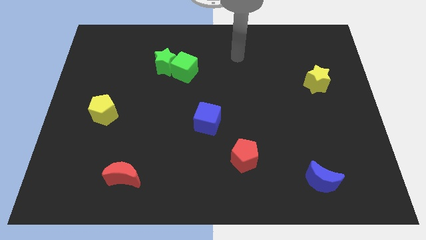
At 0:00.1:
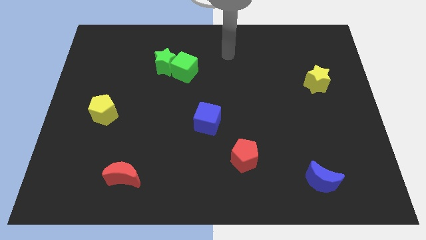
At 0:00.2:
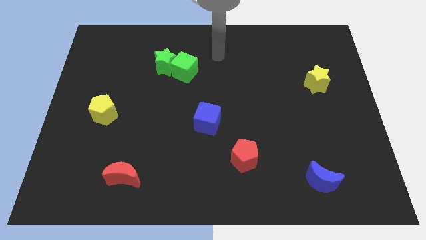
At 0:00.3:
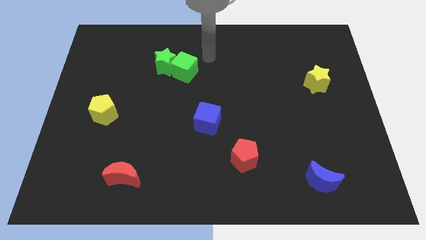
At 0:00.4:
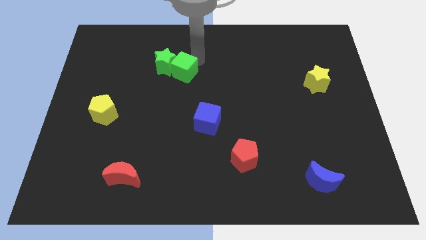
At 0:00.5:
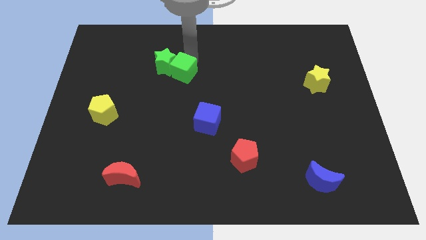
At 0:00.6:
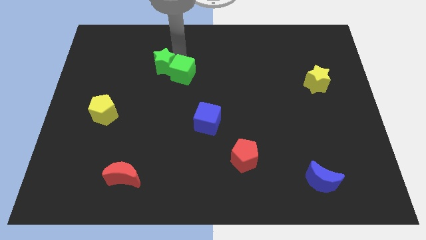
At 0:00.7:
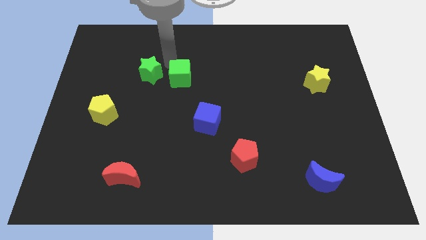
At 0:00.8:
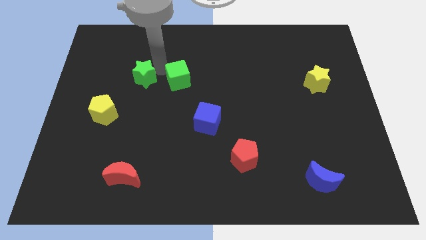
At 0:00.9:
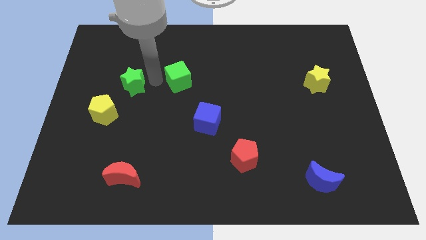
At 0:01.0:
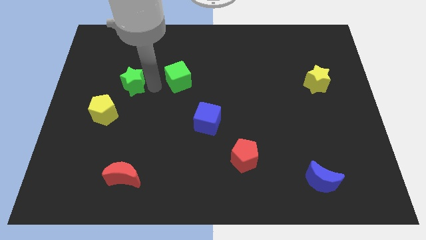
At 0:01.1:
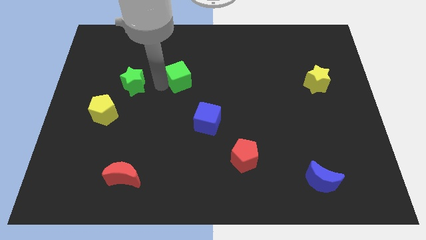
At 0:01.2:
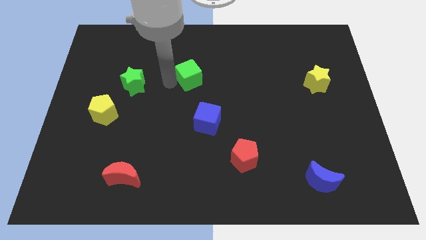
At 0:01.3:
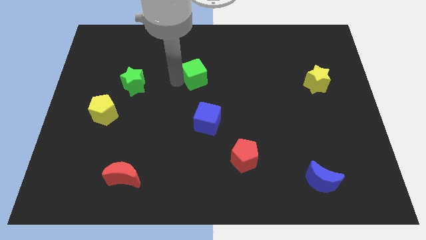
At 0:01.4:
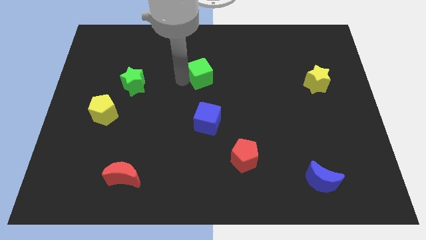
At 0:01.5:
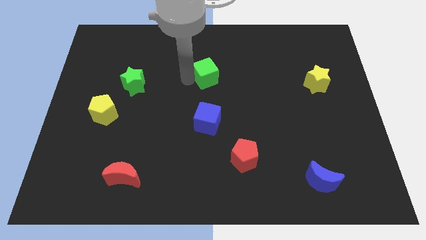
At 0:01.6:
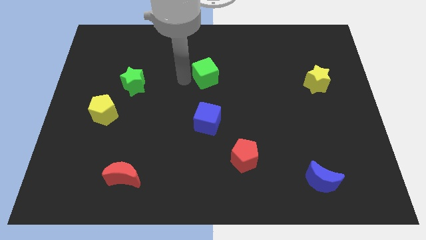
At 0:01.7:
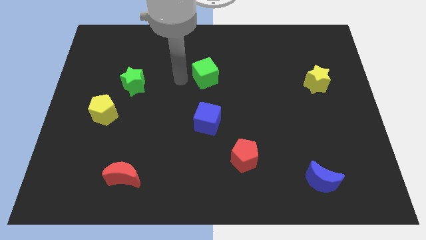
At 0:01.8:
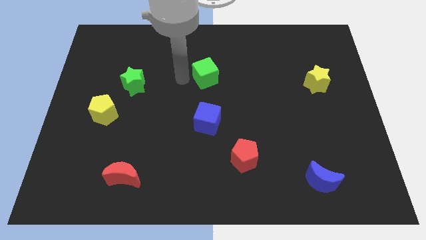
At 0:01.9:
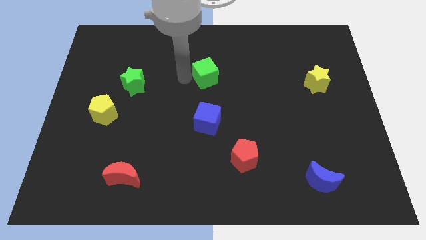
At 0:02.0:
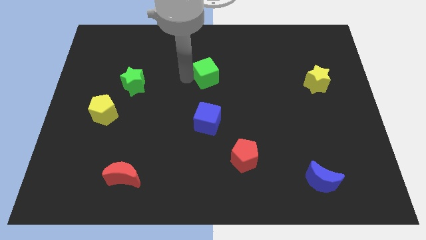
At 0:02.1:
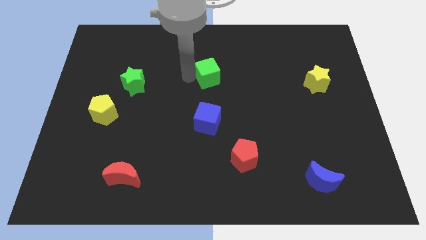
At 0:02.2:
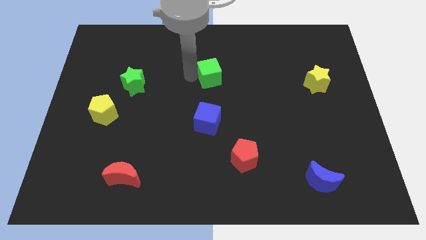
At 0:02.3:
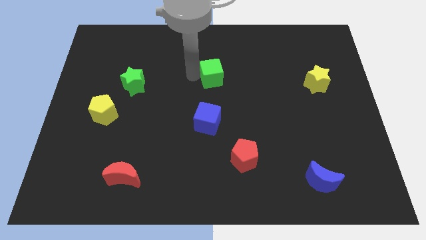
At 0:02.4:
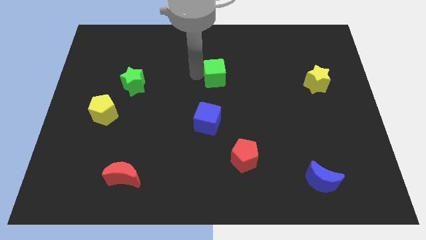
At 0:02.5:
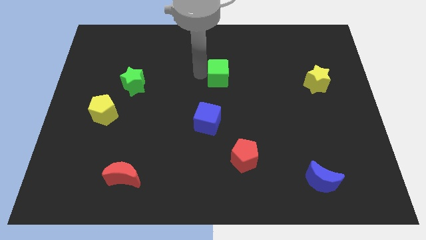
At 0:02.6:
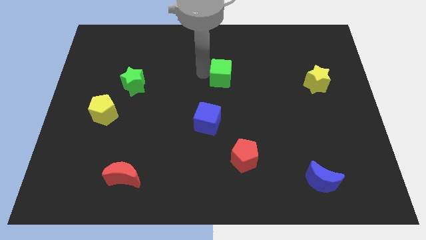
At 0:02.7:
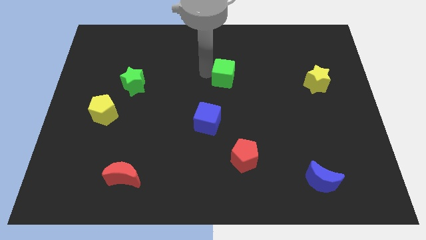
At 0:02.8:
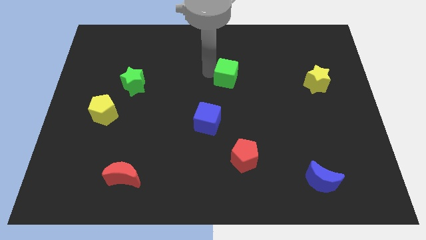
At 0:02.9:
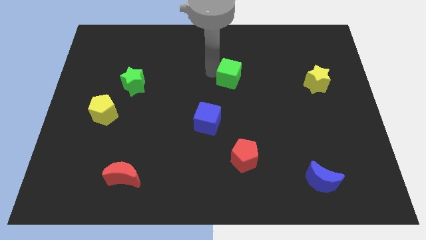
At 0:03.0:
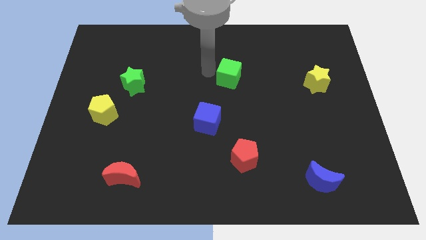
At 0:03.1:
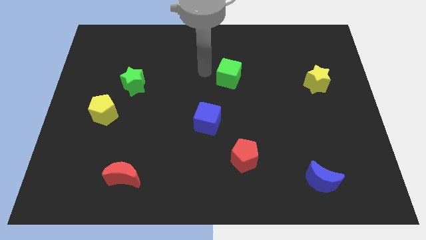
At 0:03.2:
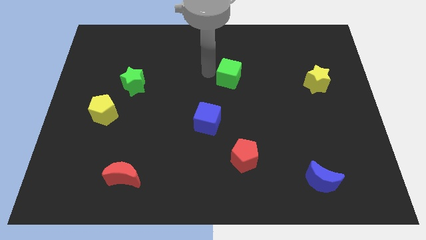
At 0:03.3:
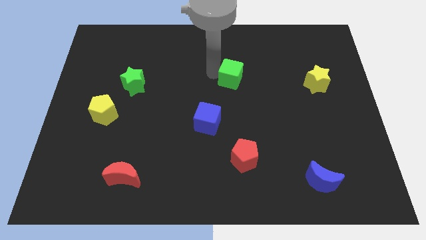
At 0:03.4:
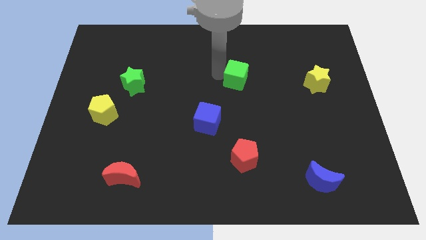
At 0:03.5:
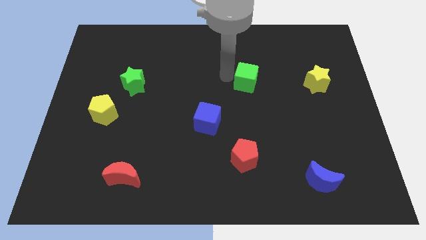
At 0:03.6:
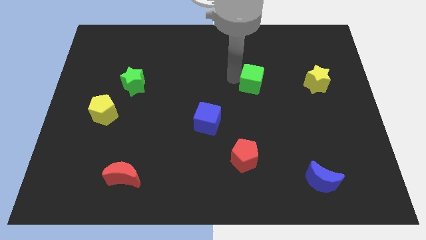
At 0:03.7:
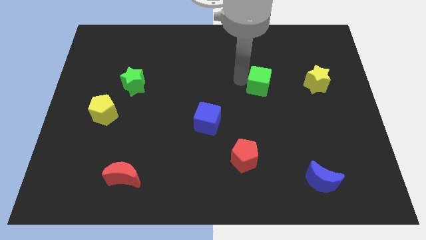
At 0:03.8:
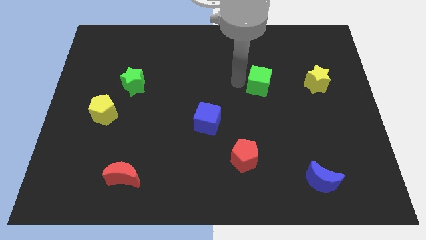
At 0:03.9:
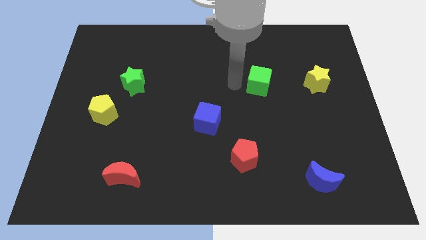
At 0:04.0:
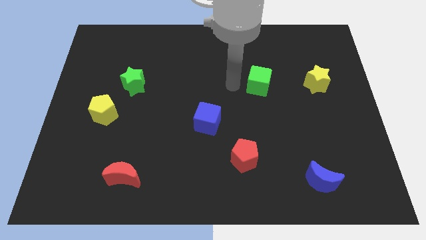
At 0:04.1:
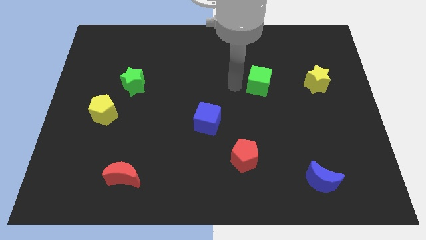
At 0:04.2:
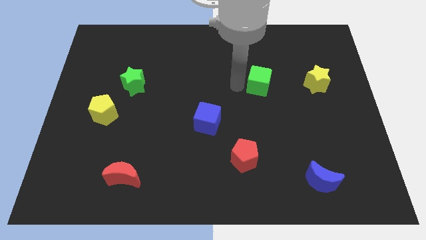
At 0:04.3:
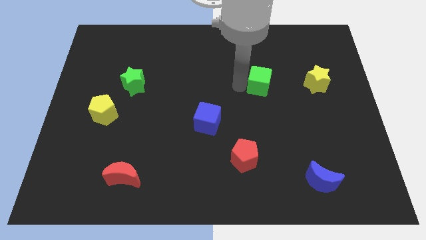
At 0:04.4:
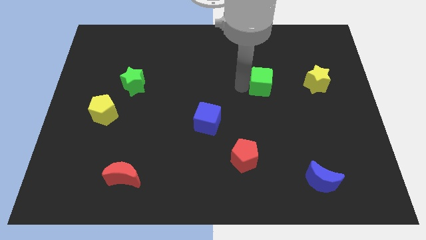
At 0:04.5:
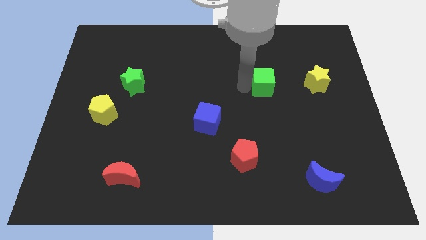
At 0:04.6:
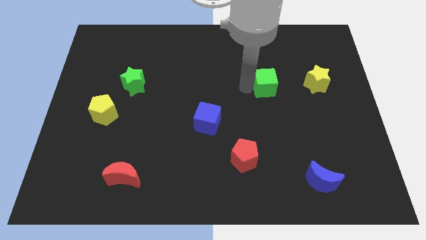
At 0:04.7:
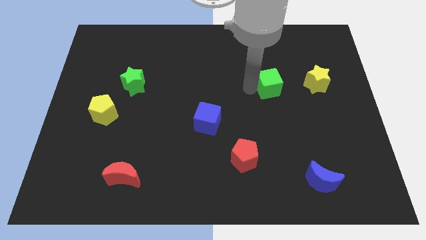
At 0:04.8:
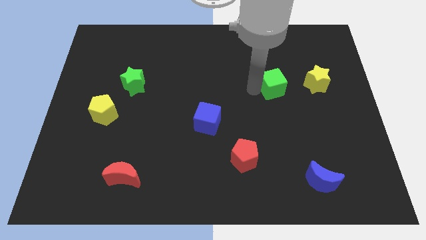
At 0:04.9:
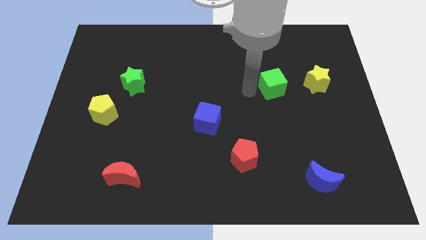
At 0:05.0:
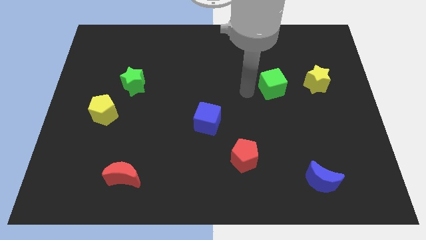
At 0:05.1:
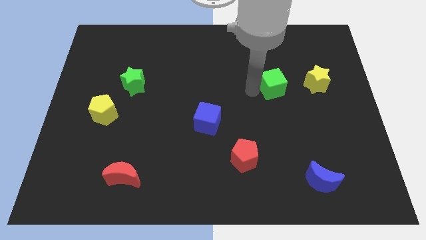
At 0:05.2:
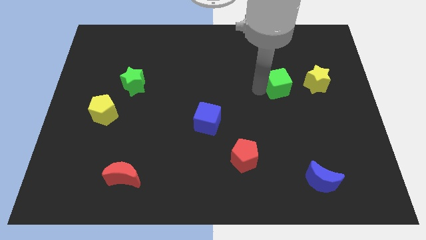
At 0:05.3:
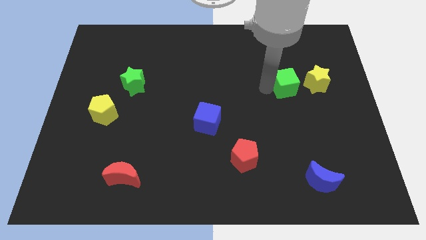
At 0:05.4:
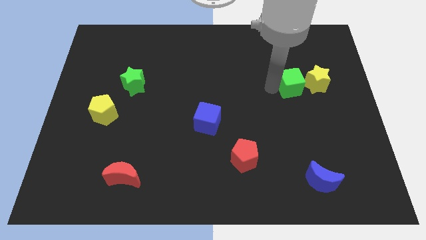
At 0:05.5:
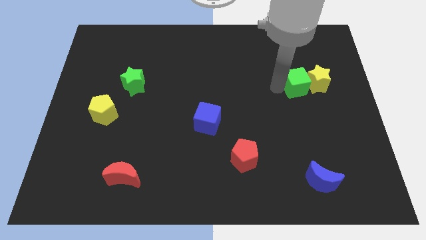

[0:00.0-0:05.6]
move the green cube to the yellow star

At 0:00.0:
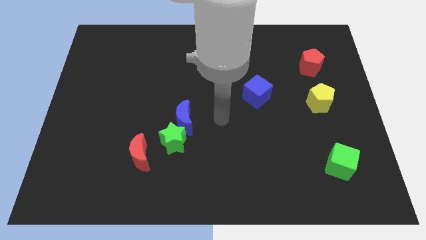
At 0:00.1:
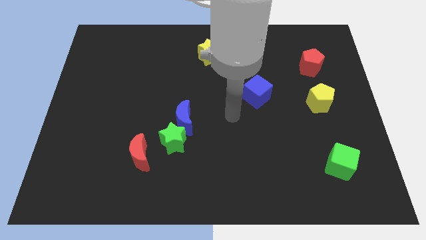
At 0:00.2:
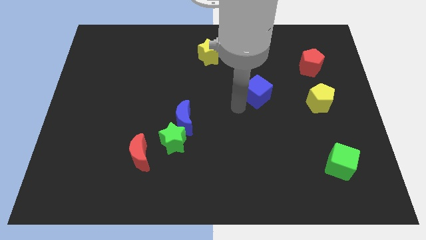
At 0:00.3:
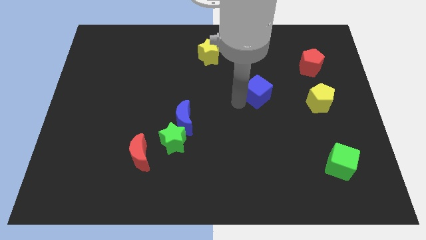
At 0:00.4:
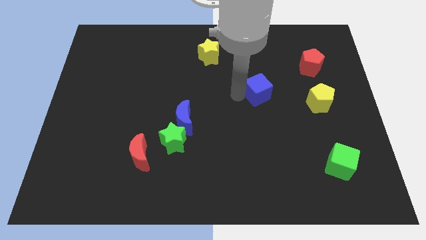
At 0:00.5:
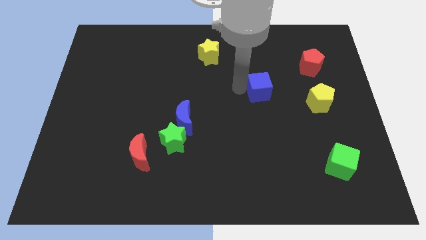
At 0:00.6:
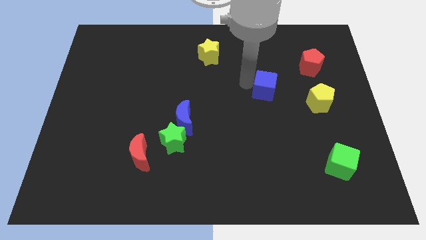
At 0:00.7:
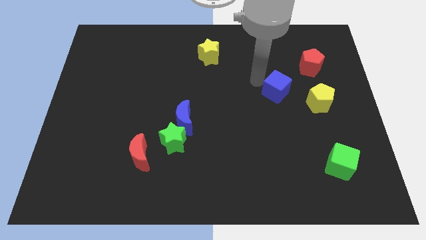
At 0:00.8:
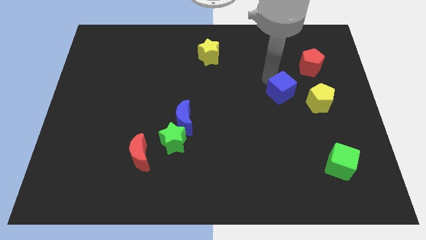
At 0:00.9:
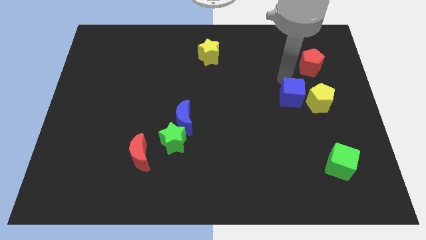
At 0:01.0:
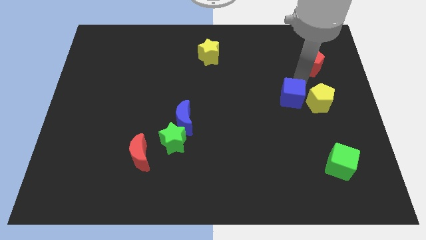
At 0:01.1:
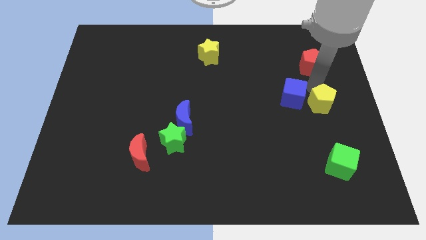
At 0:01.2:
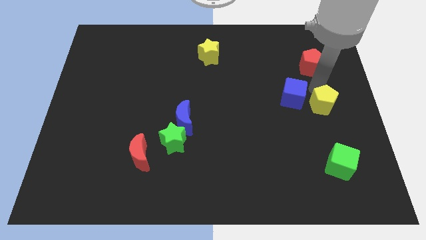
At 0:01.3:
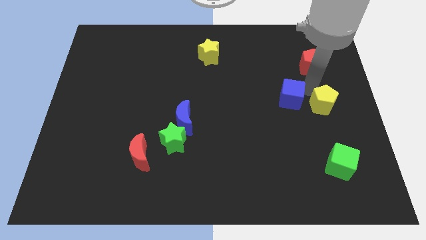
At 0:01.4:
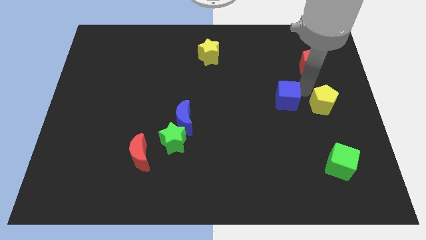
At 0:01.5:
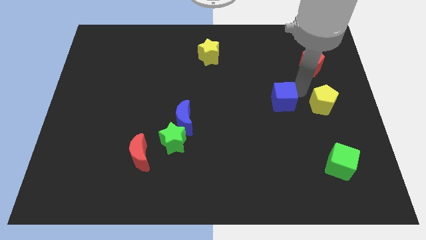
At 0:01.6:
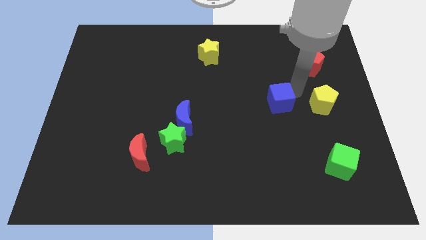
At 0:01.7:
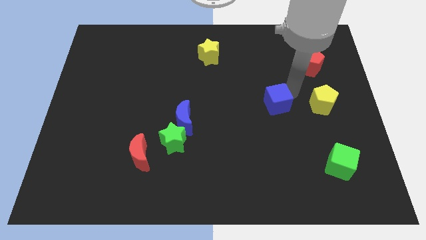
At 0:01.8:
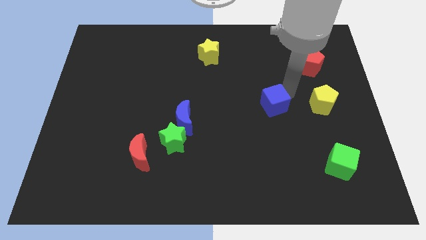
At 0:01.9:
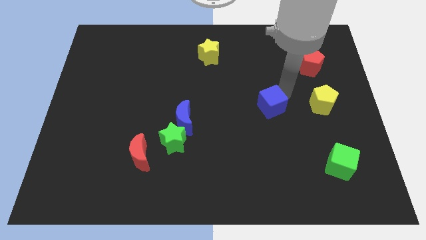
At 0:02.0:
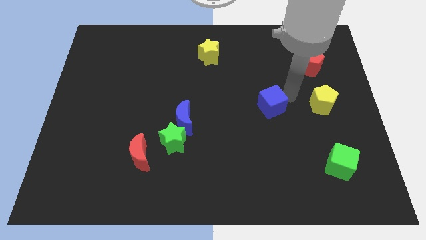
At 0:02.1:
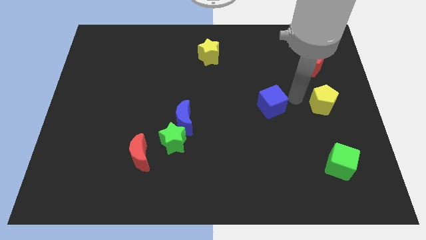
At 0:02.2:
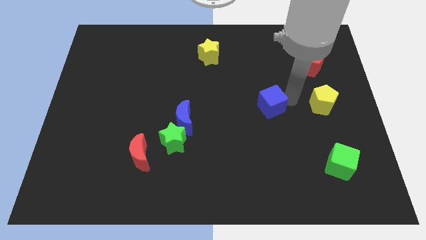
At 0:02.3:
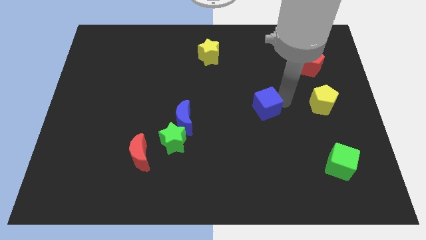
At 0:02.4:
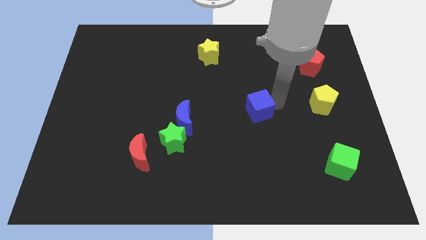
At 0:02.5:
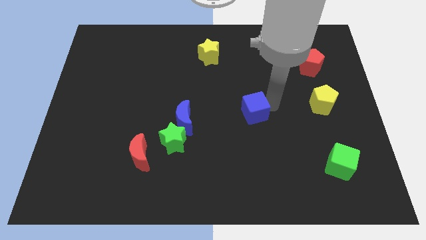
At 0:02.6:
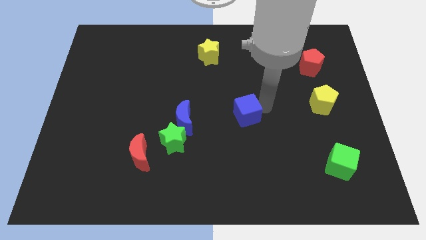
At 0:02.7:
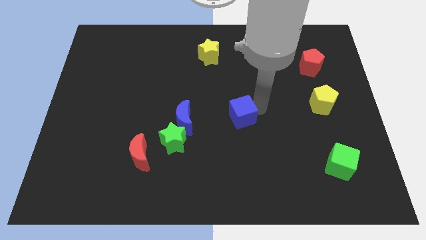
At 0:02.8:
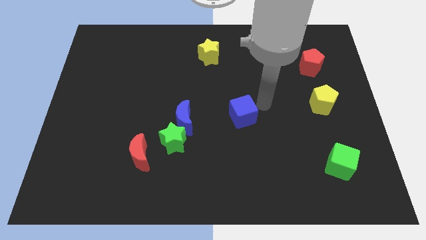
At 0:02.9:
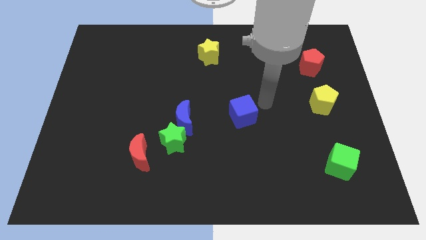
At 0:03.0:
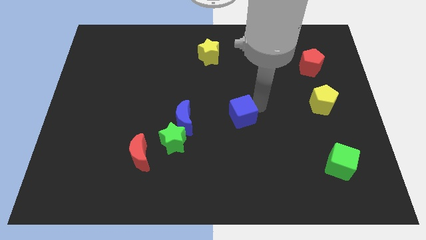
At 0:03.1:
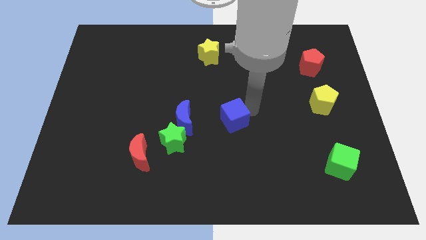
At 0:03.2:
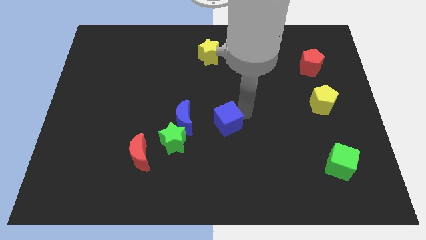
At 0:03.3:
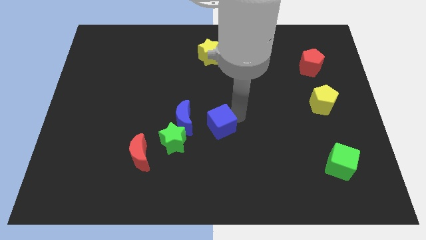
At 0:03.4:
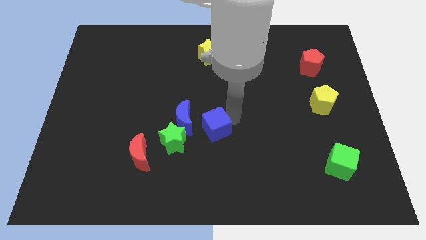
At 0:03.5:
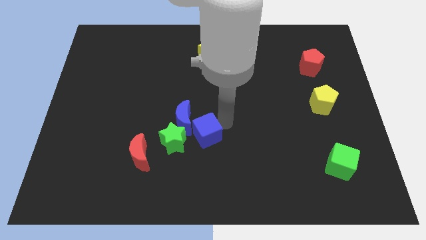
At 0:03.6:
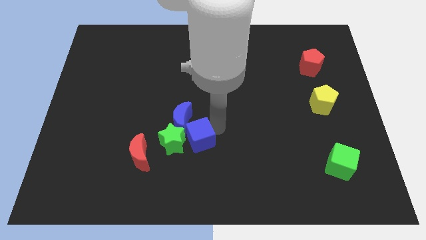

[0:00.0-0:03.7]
move the blue cube next to the green star
